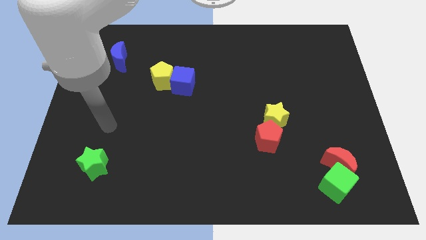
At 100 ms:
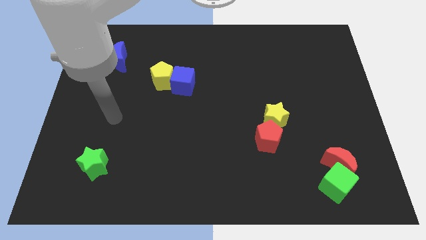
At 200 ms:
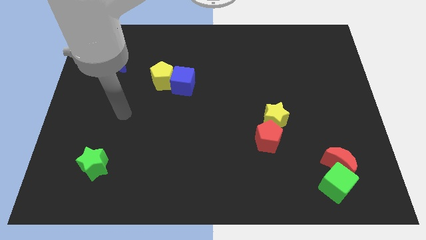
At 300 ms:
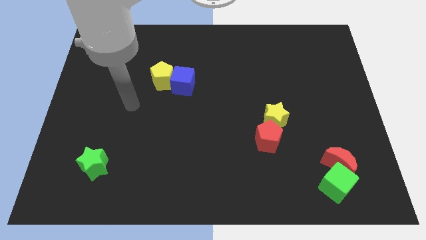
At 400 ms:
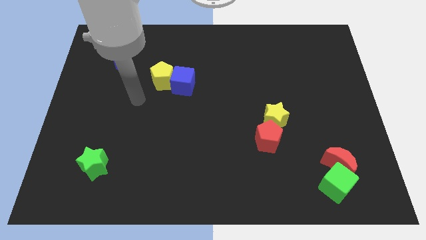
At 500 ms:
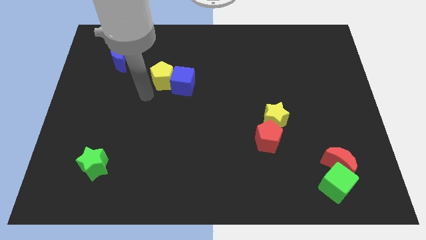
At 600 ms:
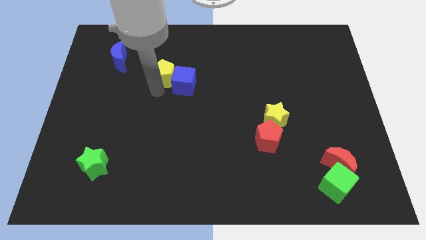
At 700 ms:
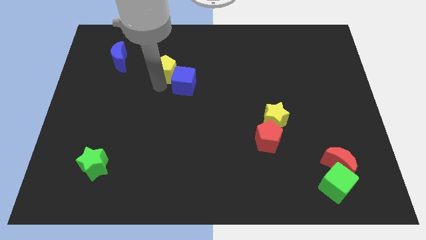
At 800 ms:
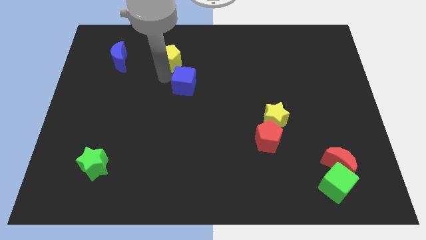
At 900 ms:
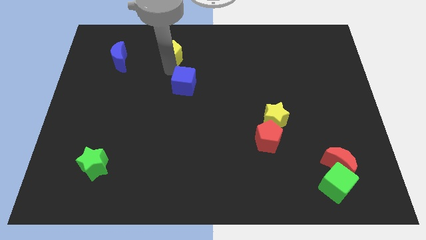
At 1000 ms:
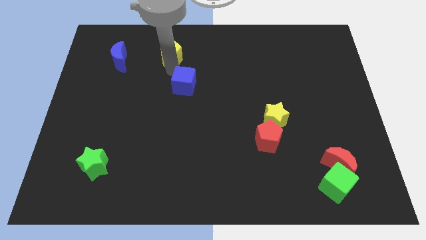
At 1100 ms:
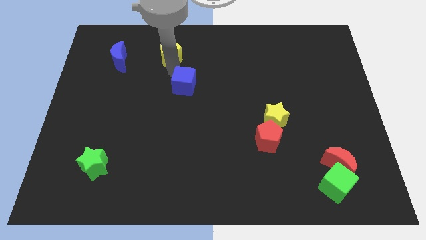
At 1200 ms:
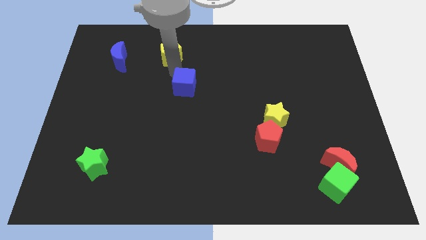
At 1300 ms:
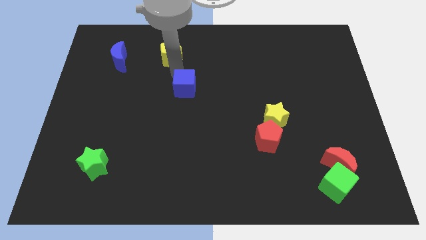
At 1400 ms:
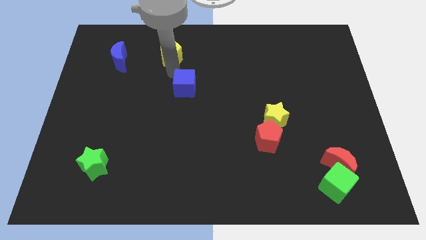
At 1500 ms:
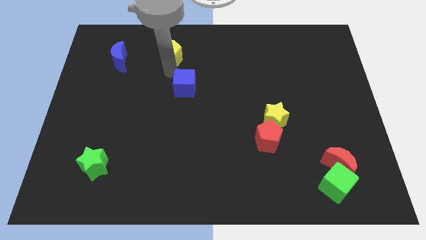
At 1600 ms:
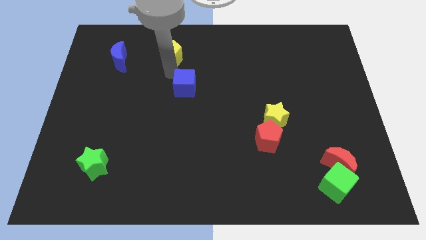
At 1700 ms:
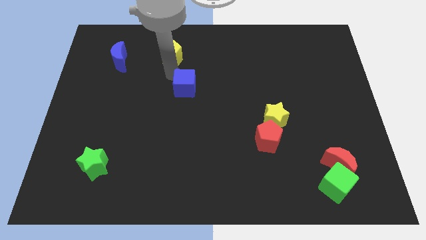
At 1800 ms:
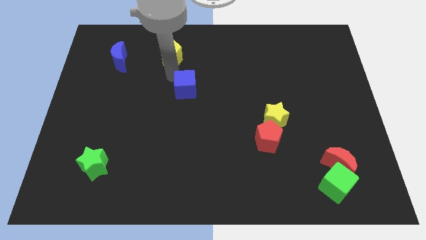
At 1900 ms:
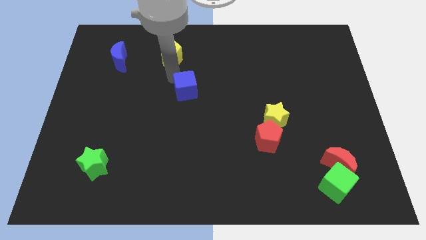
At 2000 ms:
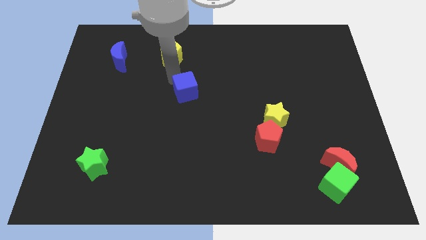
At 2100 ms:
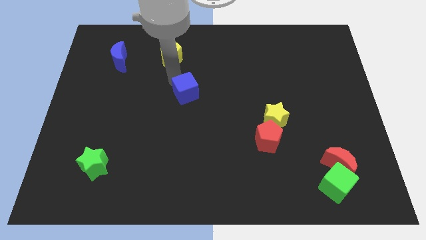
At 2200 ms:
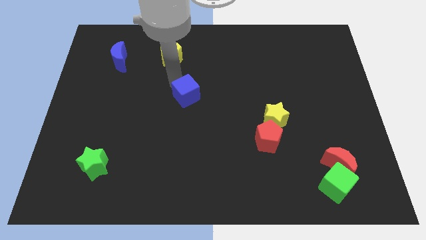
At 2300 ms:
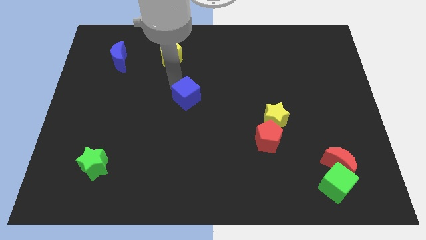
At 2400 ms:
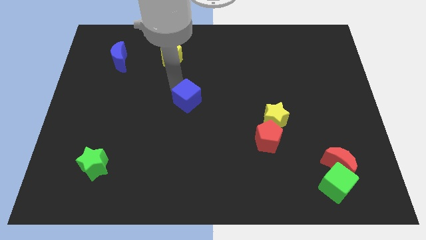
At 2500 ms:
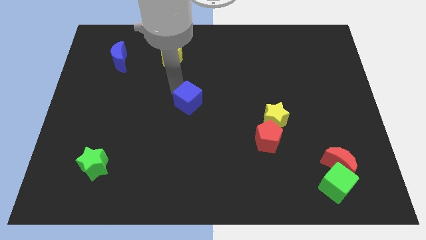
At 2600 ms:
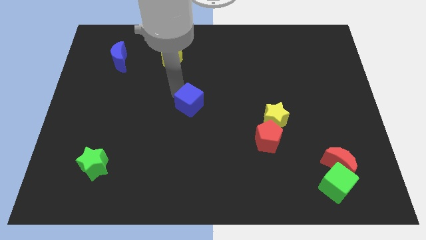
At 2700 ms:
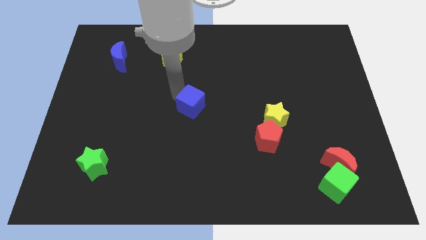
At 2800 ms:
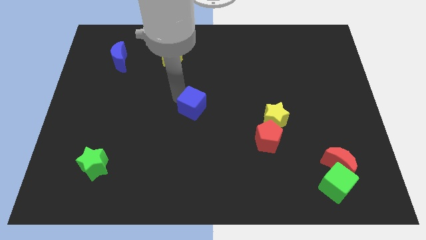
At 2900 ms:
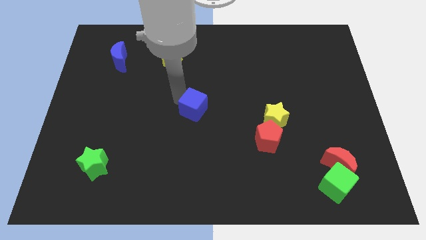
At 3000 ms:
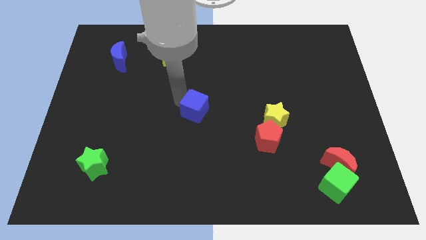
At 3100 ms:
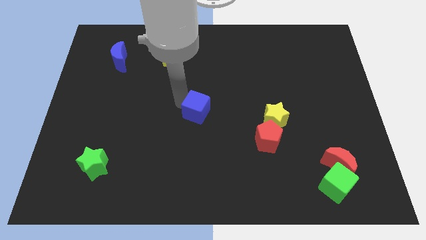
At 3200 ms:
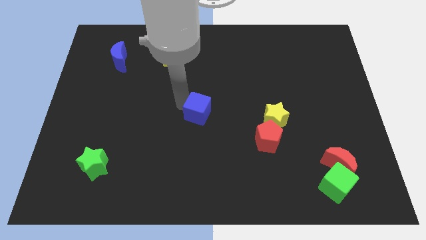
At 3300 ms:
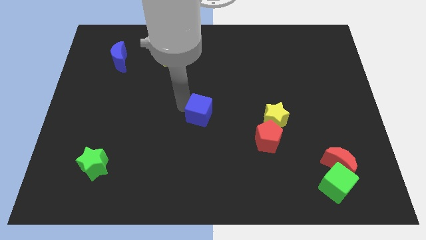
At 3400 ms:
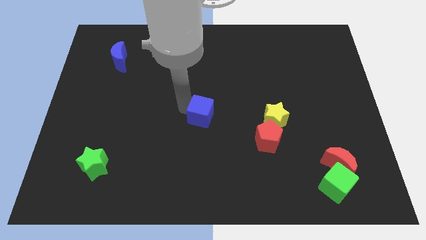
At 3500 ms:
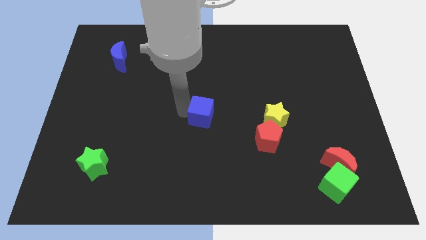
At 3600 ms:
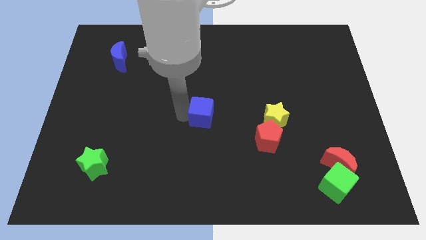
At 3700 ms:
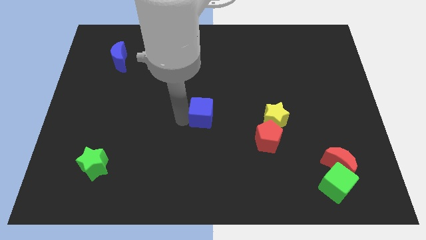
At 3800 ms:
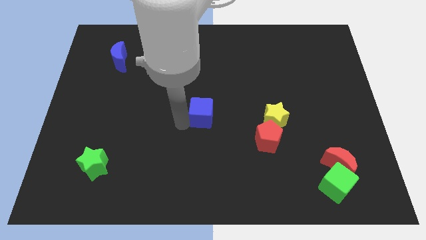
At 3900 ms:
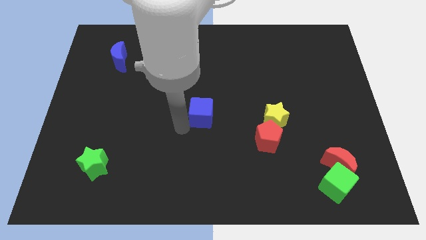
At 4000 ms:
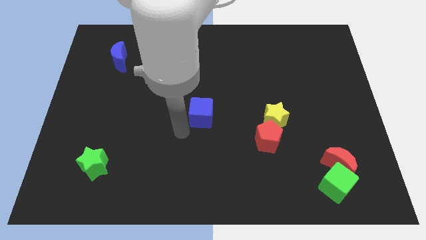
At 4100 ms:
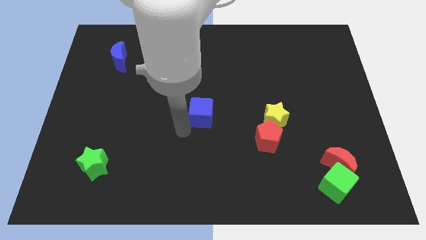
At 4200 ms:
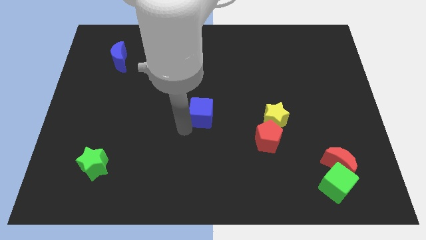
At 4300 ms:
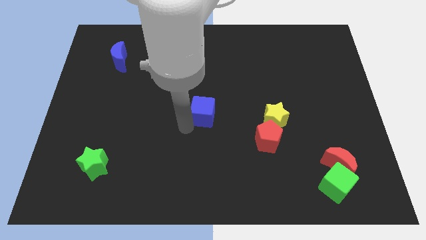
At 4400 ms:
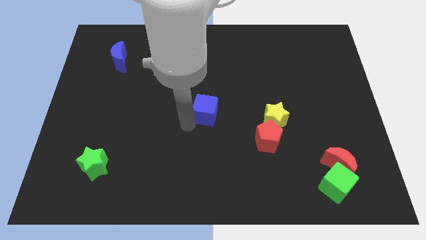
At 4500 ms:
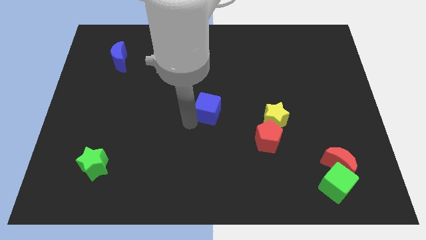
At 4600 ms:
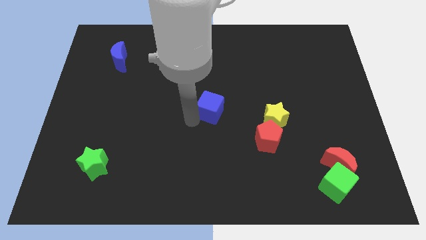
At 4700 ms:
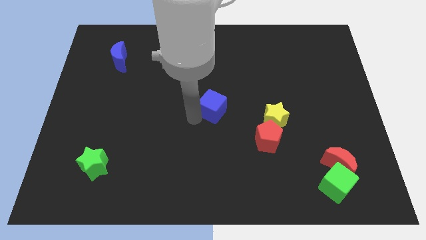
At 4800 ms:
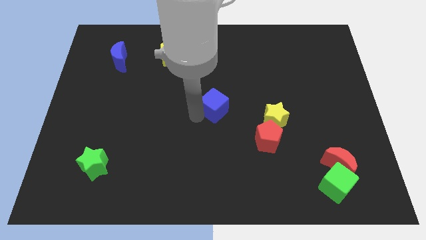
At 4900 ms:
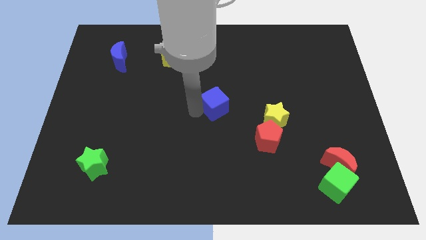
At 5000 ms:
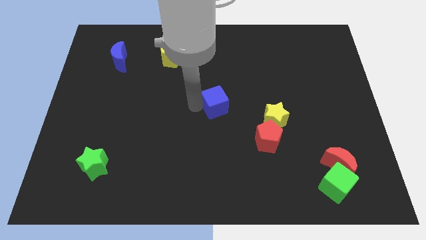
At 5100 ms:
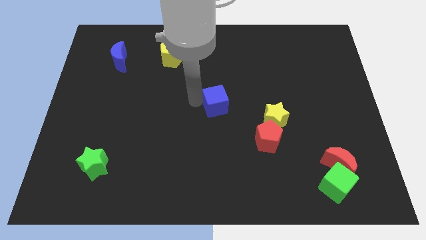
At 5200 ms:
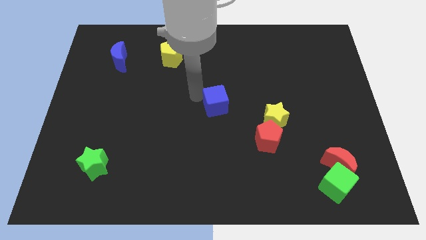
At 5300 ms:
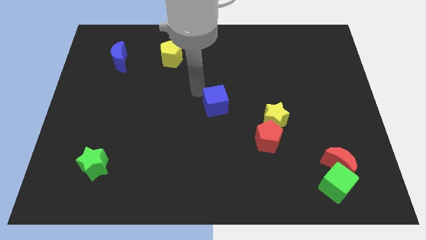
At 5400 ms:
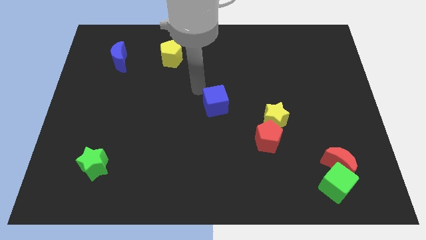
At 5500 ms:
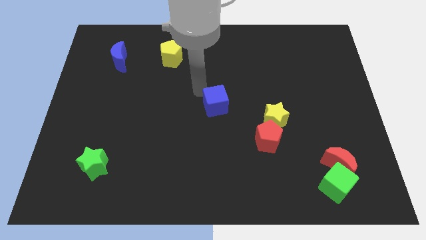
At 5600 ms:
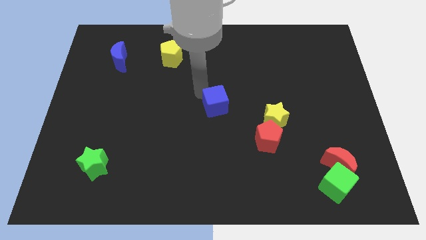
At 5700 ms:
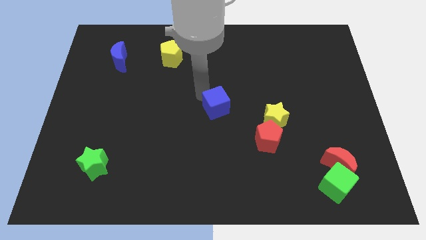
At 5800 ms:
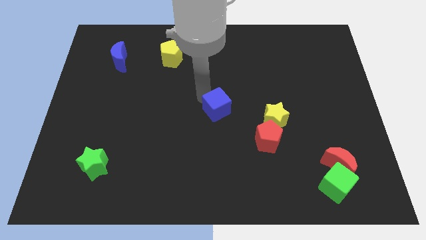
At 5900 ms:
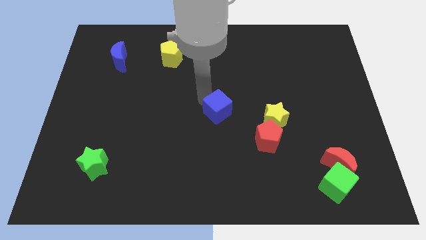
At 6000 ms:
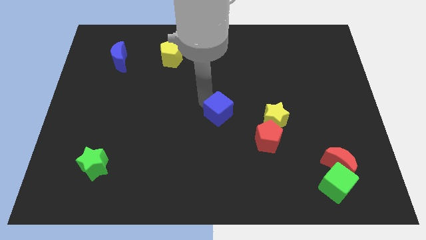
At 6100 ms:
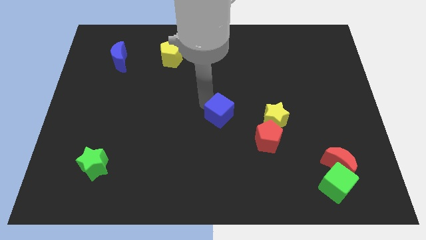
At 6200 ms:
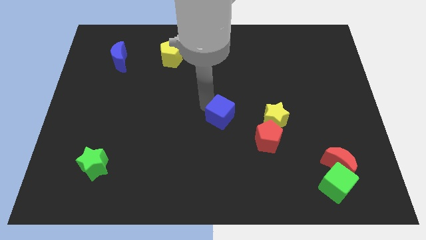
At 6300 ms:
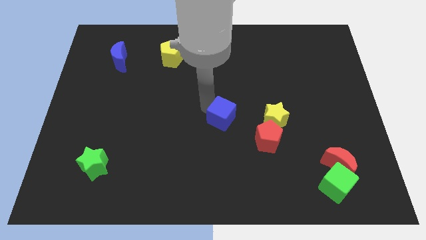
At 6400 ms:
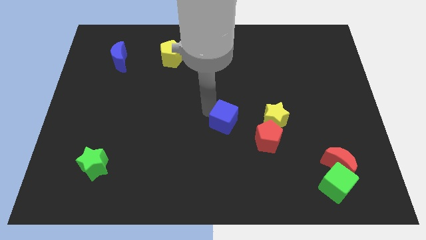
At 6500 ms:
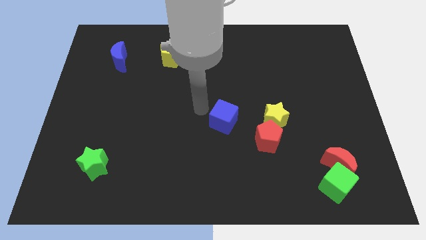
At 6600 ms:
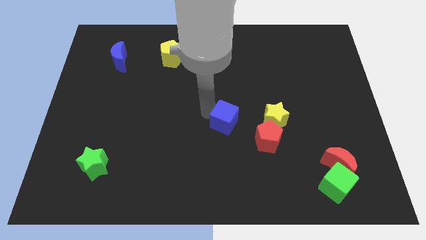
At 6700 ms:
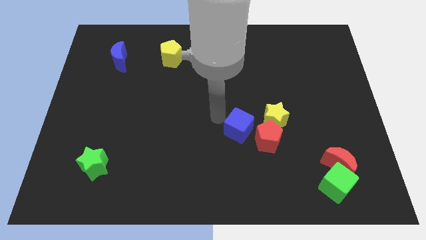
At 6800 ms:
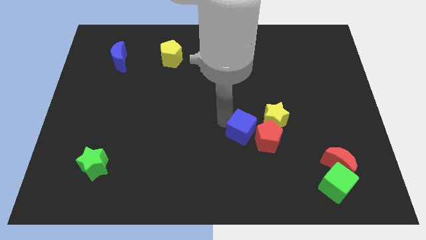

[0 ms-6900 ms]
slide the blue cube next to the red pentagon

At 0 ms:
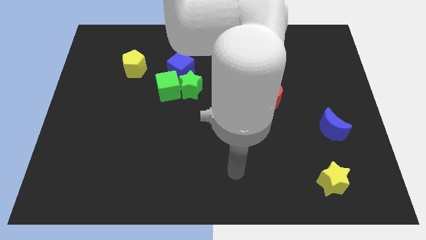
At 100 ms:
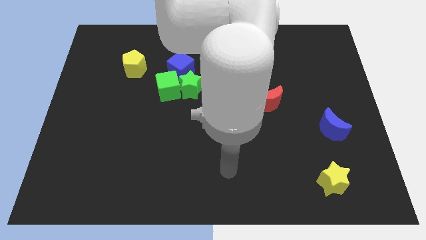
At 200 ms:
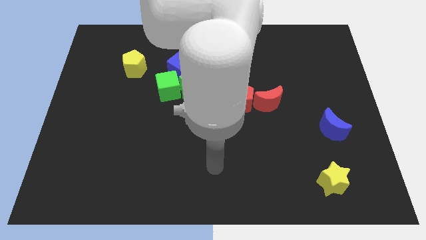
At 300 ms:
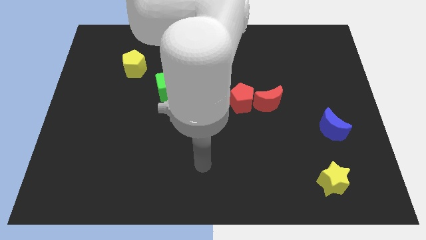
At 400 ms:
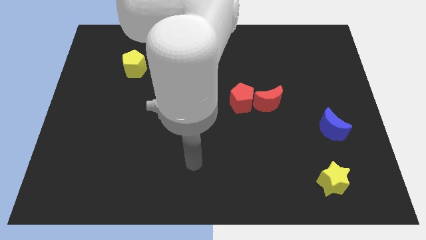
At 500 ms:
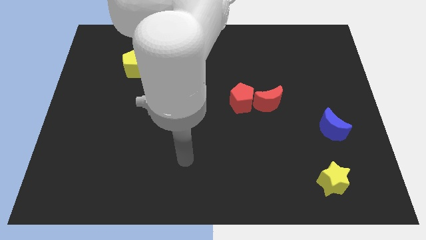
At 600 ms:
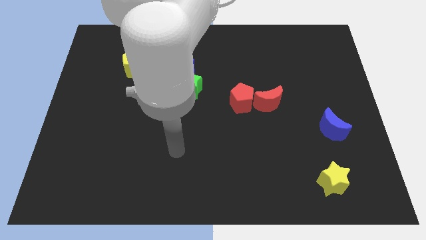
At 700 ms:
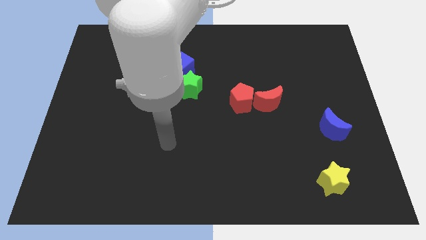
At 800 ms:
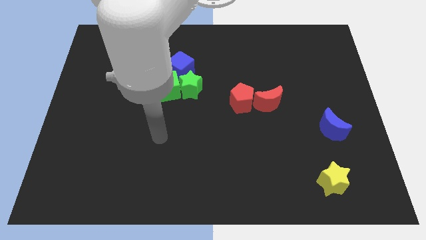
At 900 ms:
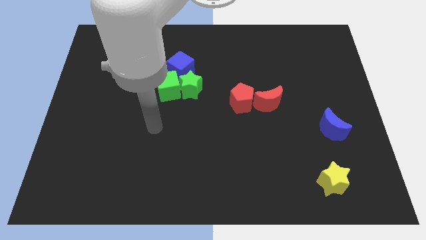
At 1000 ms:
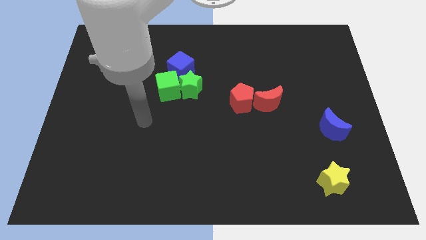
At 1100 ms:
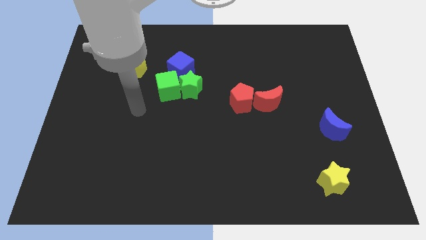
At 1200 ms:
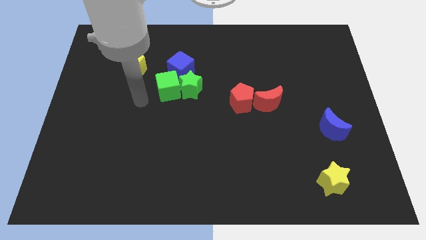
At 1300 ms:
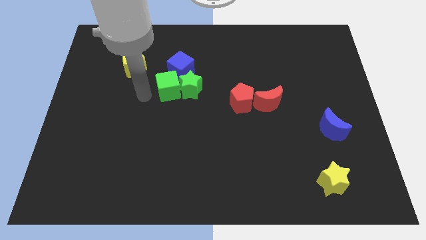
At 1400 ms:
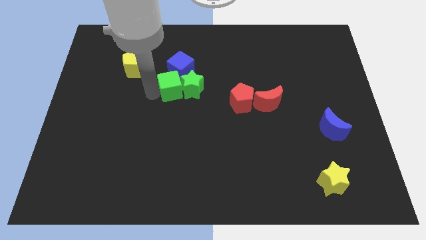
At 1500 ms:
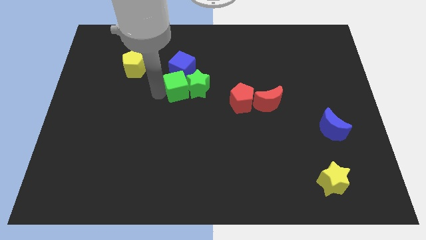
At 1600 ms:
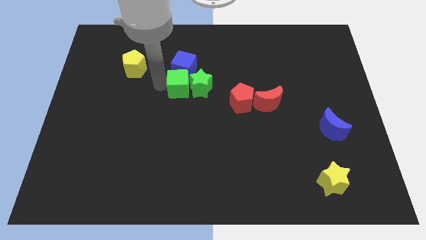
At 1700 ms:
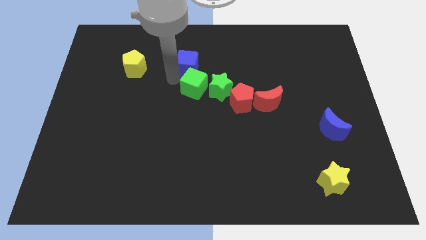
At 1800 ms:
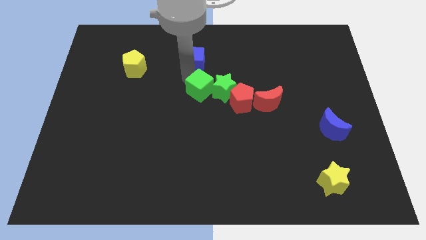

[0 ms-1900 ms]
push the green star close to the red pentagon
